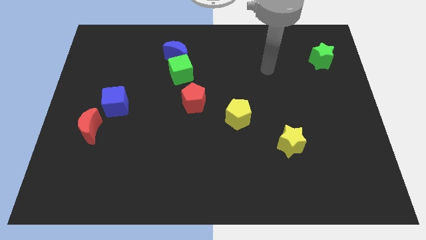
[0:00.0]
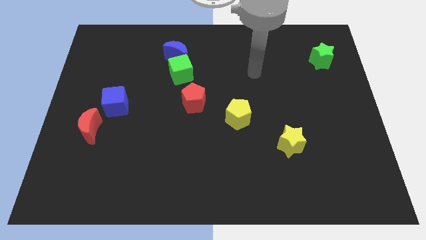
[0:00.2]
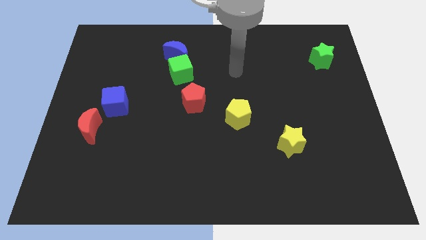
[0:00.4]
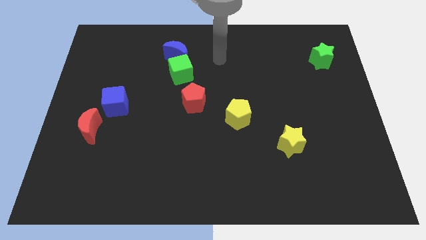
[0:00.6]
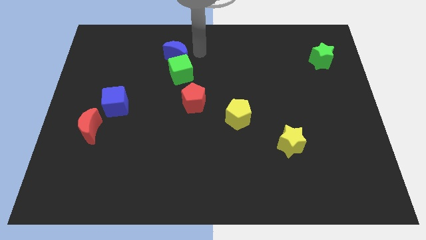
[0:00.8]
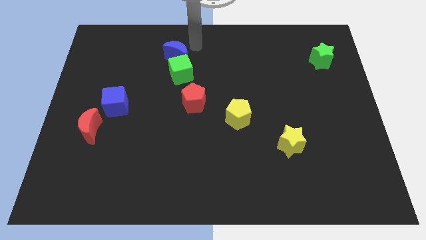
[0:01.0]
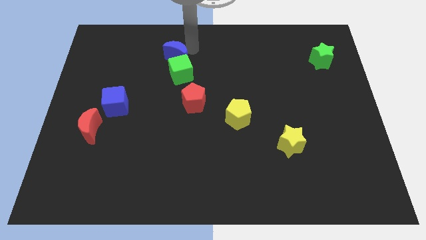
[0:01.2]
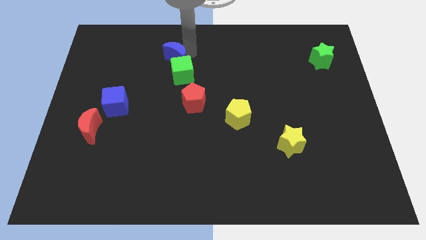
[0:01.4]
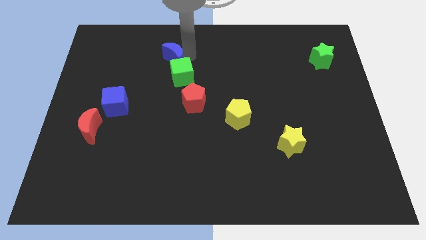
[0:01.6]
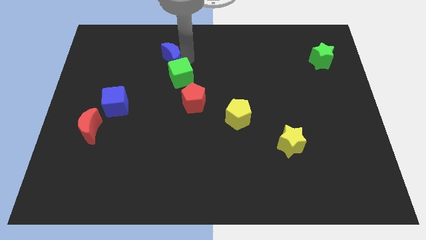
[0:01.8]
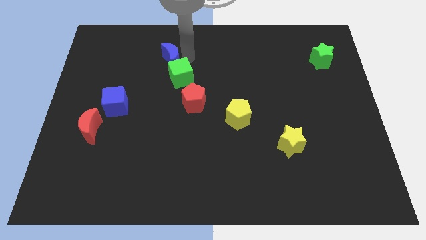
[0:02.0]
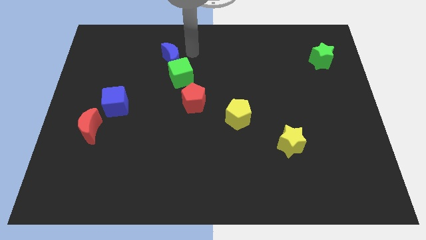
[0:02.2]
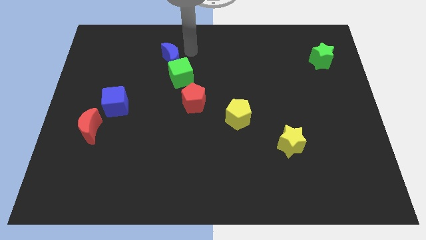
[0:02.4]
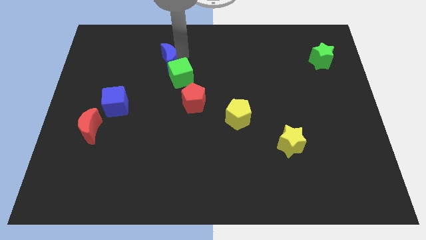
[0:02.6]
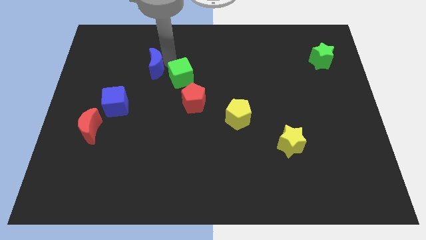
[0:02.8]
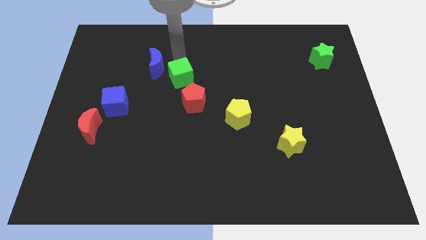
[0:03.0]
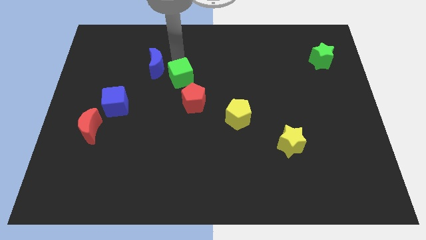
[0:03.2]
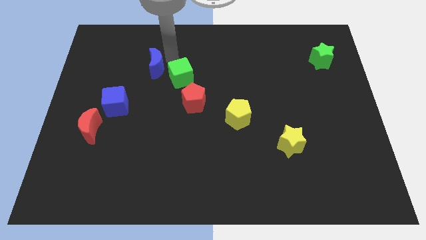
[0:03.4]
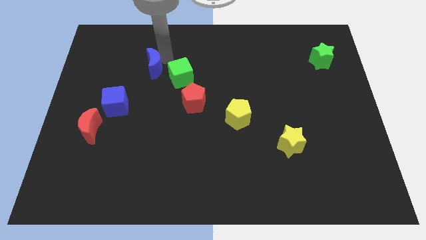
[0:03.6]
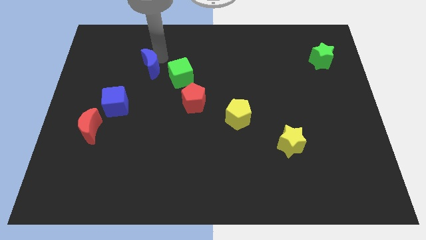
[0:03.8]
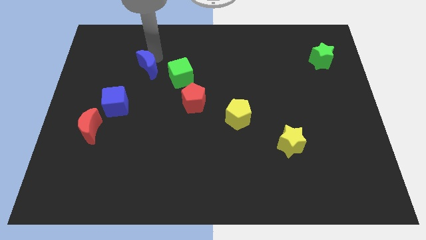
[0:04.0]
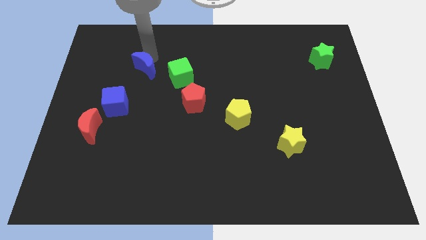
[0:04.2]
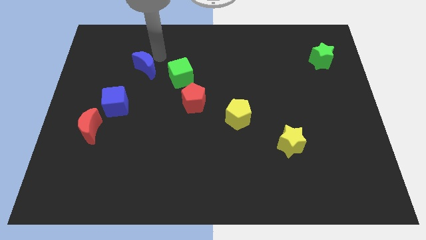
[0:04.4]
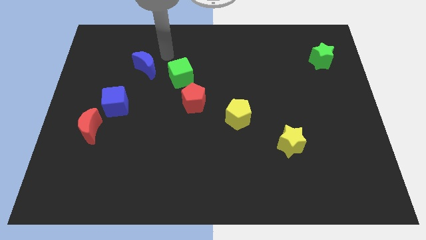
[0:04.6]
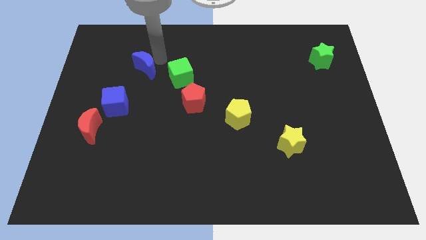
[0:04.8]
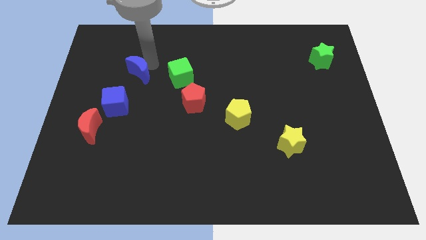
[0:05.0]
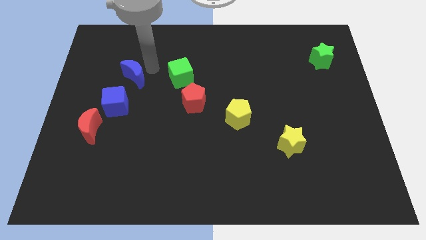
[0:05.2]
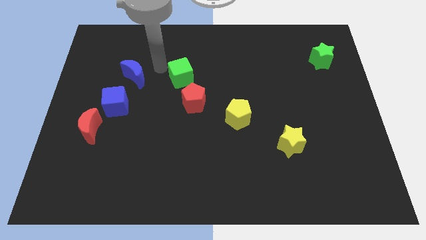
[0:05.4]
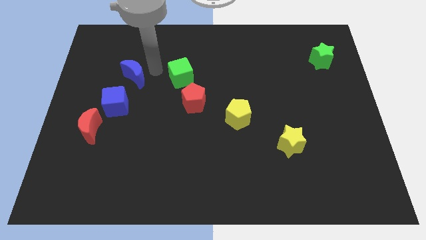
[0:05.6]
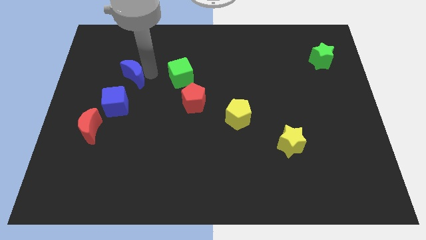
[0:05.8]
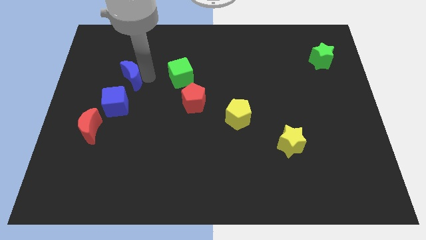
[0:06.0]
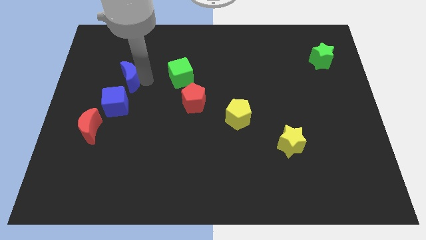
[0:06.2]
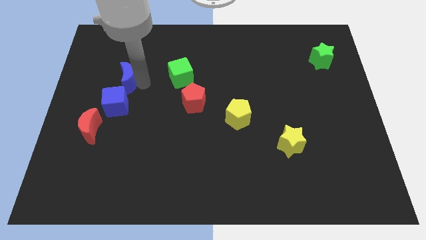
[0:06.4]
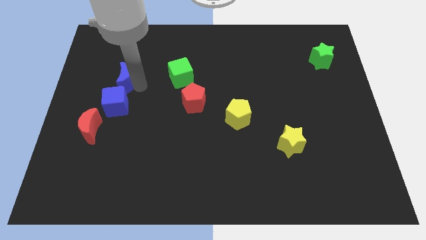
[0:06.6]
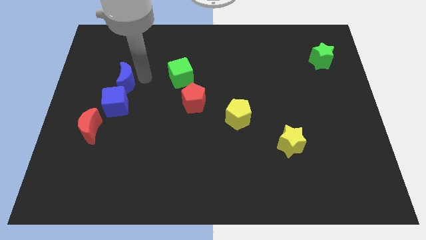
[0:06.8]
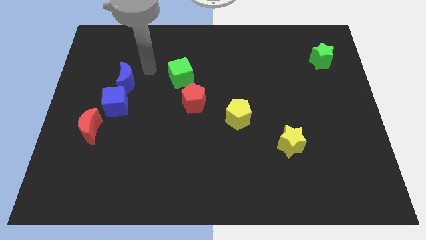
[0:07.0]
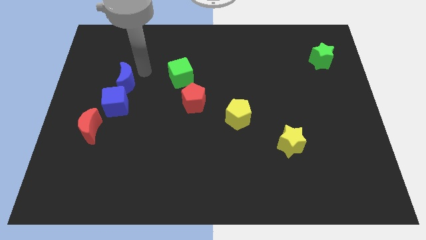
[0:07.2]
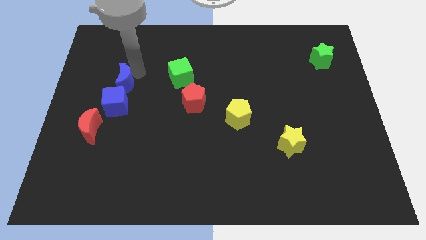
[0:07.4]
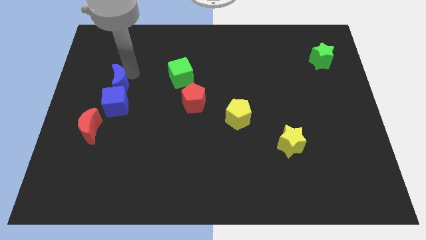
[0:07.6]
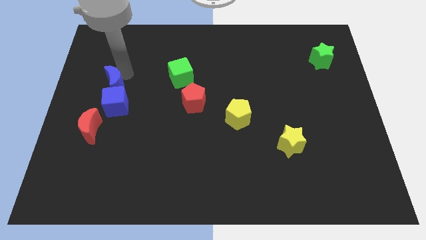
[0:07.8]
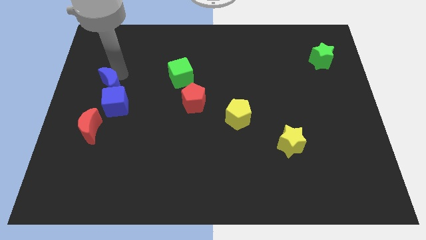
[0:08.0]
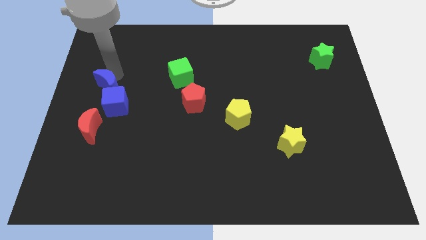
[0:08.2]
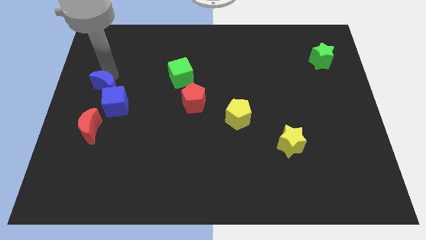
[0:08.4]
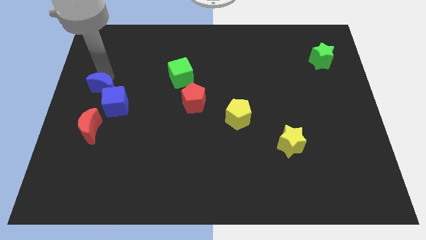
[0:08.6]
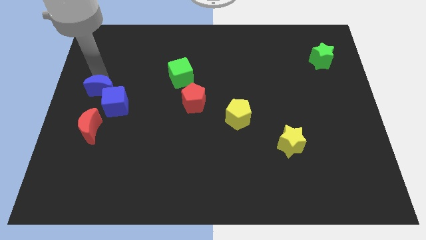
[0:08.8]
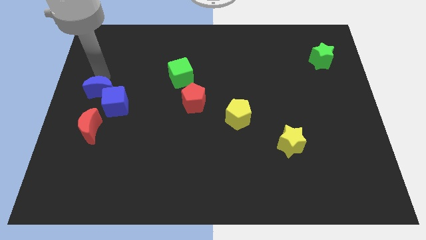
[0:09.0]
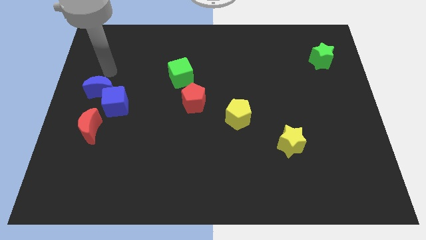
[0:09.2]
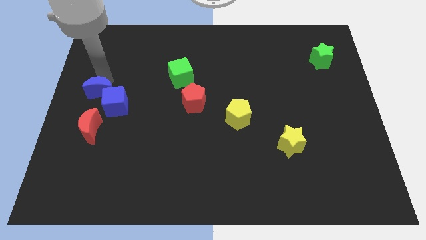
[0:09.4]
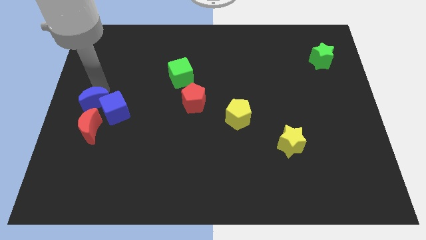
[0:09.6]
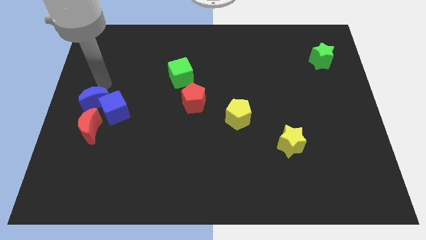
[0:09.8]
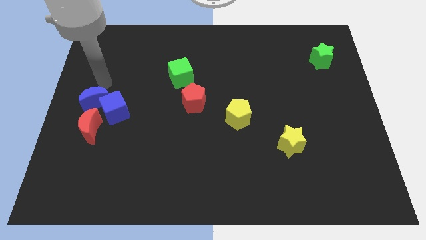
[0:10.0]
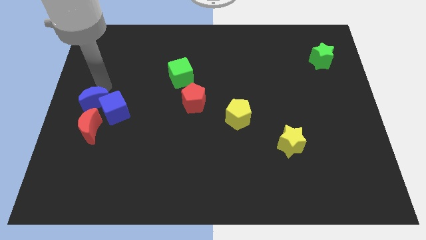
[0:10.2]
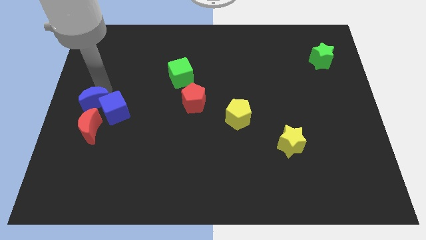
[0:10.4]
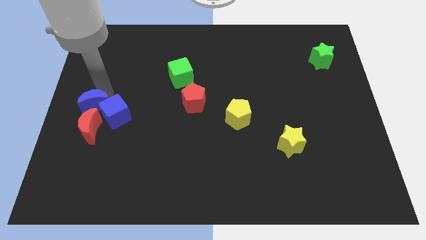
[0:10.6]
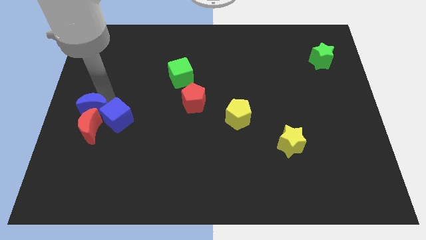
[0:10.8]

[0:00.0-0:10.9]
move the blue moon towards the red moon
